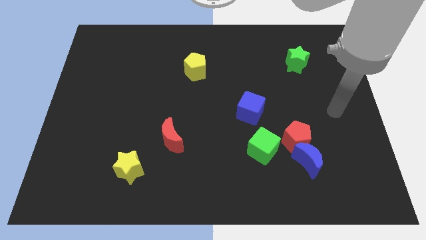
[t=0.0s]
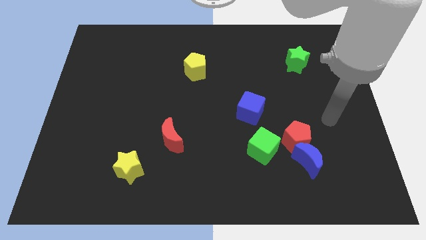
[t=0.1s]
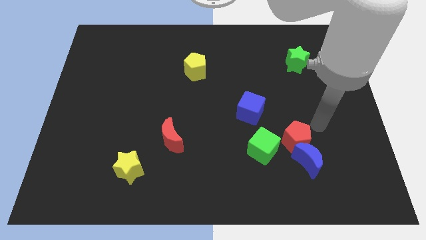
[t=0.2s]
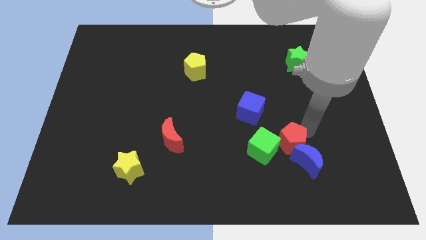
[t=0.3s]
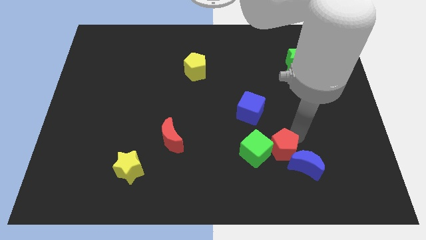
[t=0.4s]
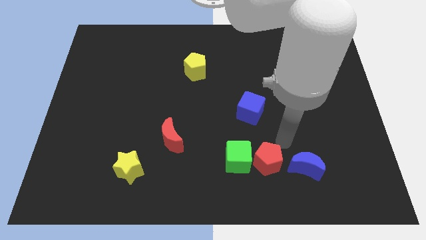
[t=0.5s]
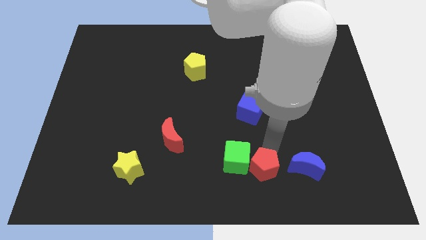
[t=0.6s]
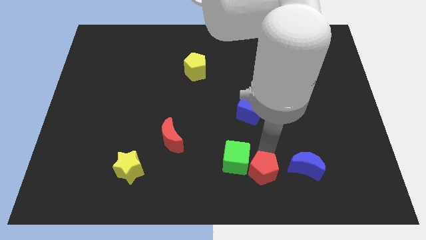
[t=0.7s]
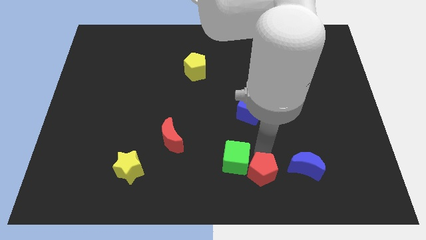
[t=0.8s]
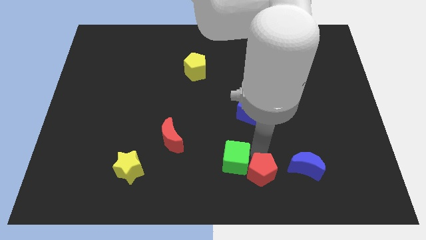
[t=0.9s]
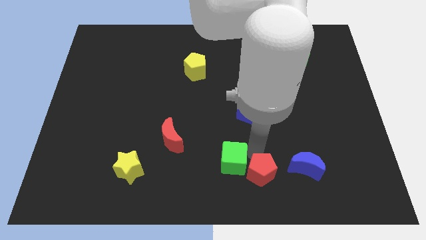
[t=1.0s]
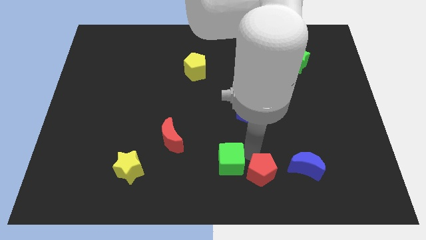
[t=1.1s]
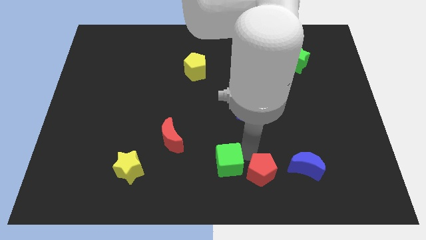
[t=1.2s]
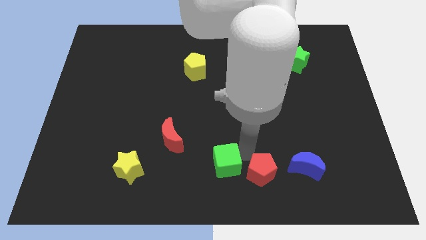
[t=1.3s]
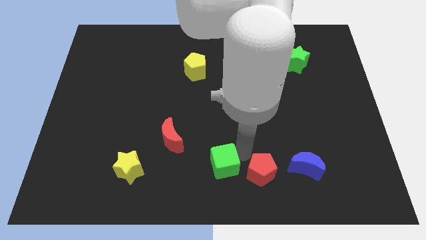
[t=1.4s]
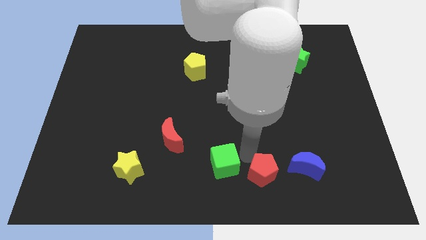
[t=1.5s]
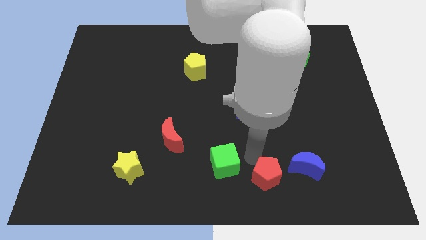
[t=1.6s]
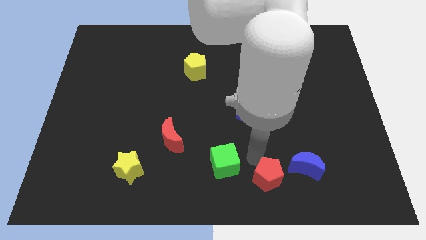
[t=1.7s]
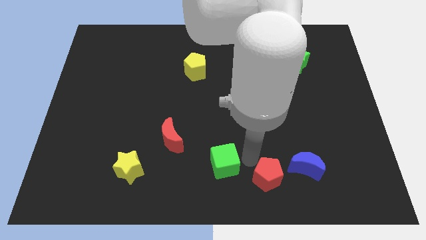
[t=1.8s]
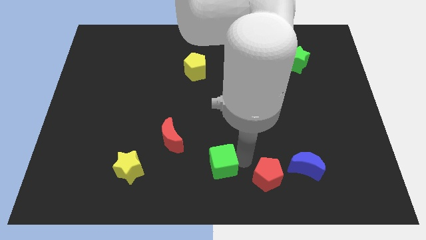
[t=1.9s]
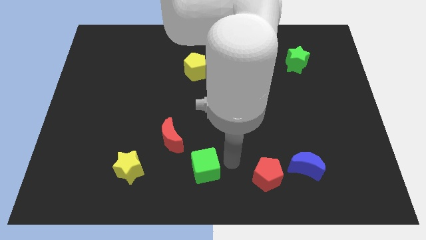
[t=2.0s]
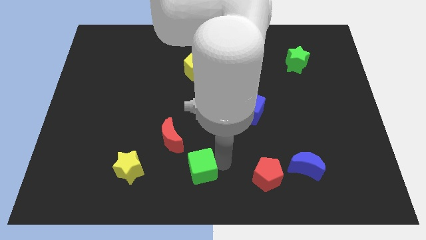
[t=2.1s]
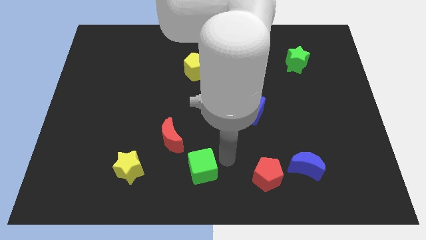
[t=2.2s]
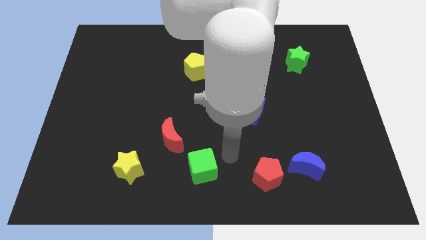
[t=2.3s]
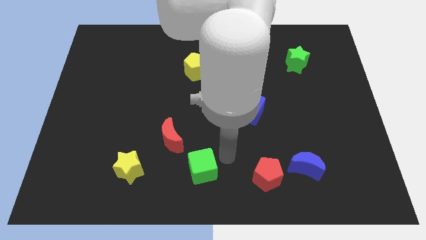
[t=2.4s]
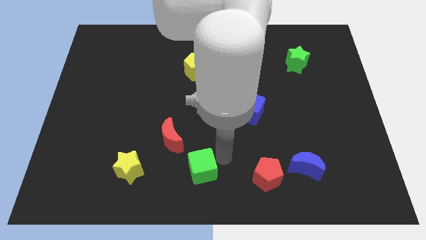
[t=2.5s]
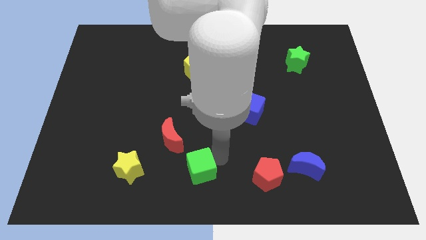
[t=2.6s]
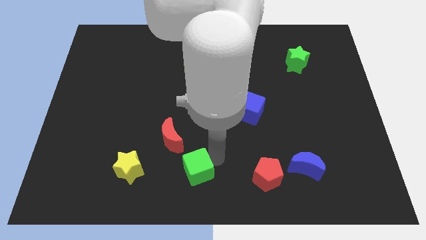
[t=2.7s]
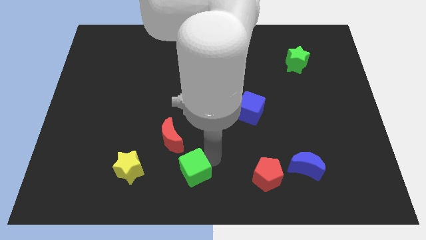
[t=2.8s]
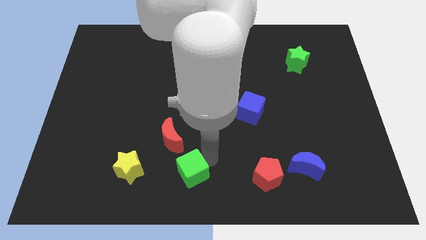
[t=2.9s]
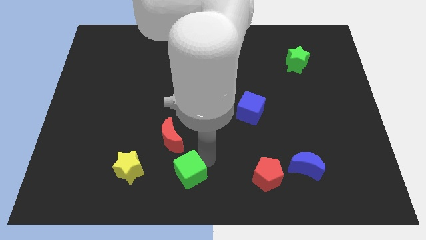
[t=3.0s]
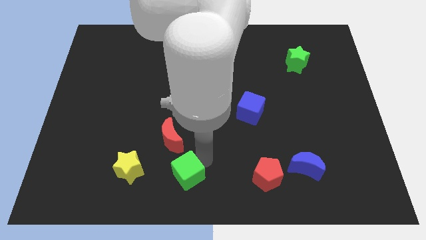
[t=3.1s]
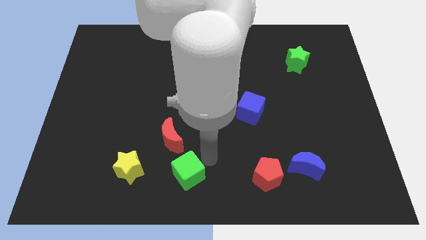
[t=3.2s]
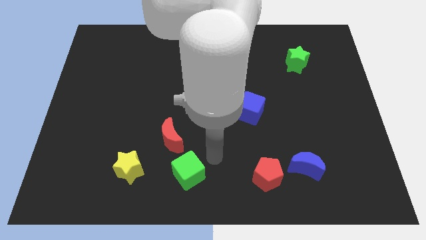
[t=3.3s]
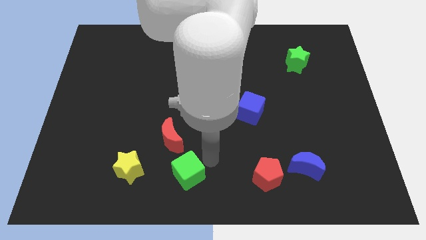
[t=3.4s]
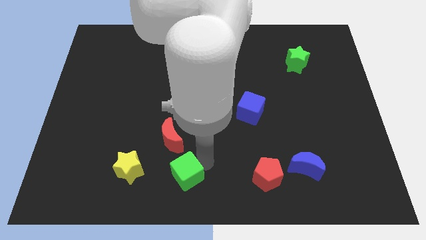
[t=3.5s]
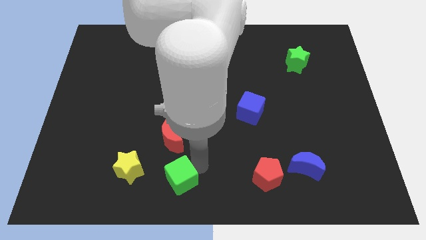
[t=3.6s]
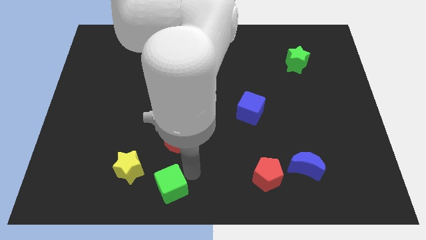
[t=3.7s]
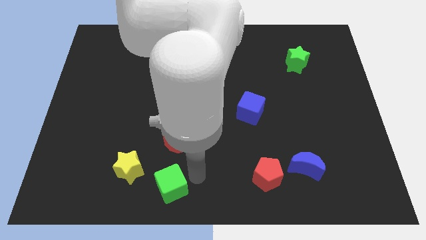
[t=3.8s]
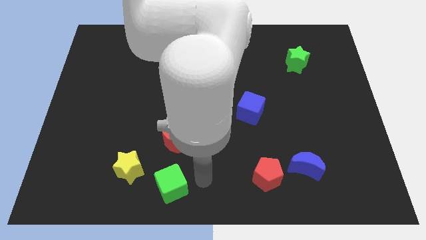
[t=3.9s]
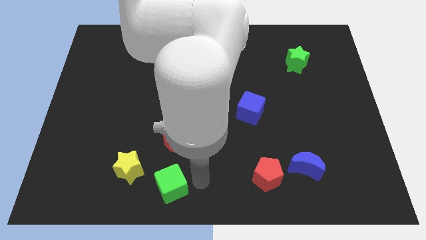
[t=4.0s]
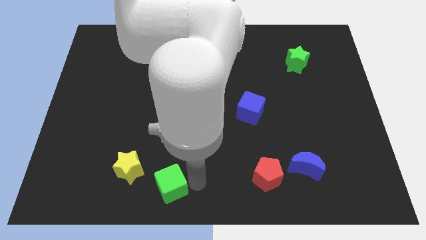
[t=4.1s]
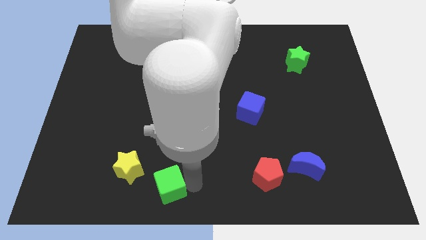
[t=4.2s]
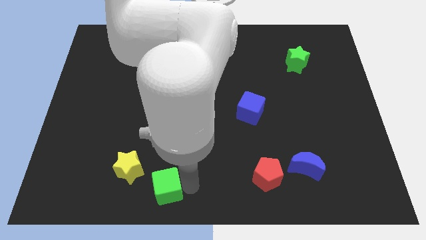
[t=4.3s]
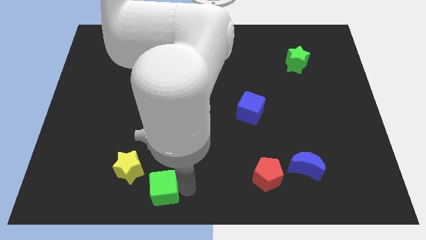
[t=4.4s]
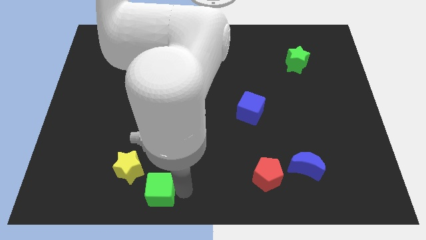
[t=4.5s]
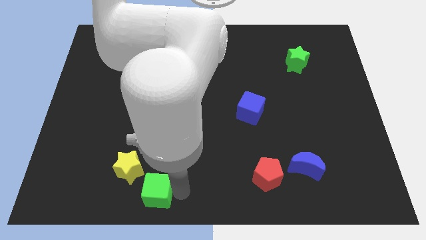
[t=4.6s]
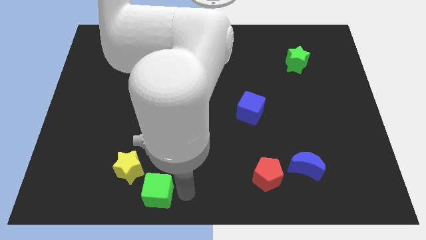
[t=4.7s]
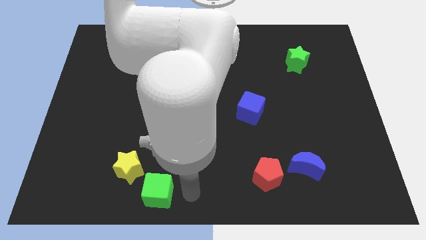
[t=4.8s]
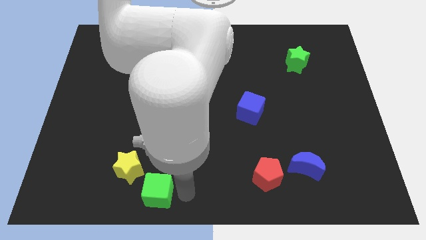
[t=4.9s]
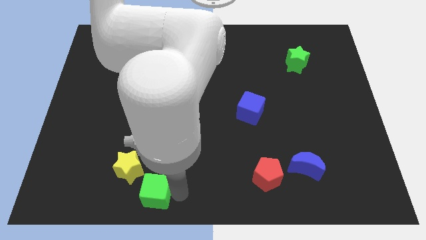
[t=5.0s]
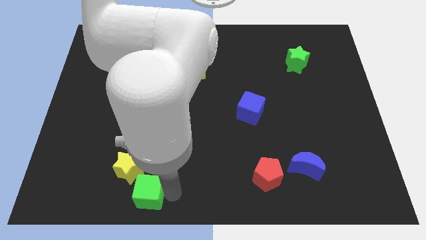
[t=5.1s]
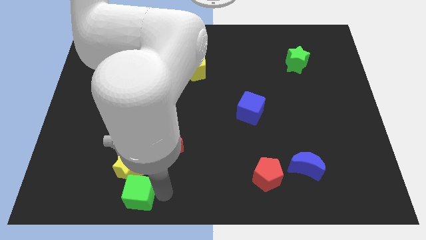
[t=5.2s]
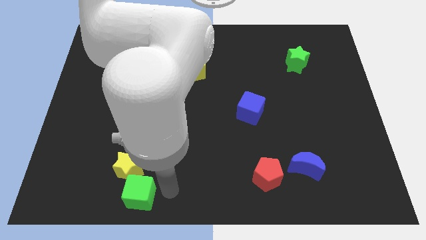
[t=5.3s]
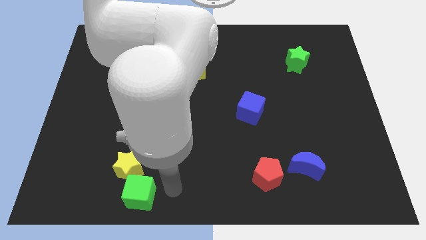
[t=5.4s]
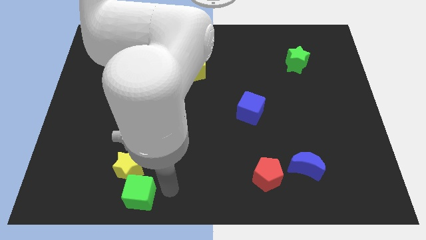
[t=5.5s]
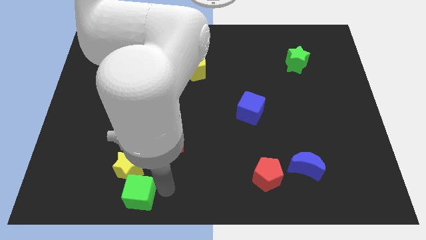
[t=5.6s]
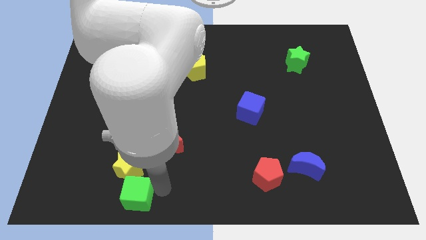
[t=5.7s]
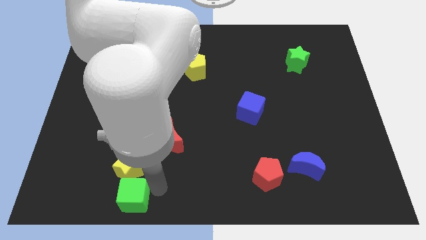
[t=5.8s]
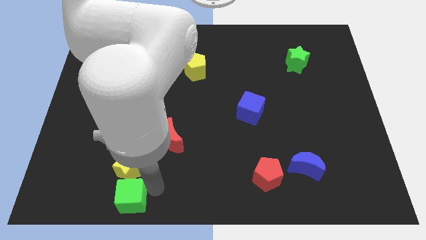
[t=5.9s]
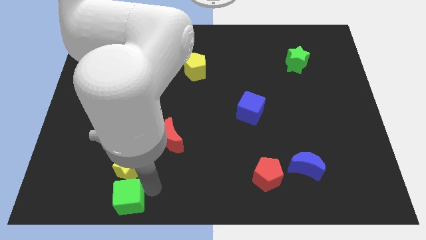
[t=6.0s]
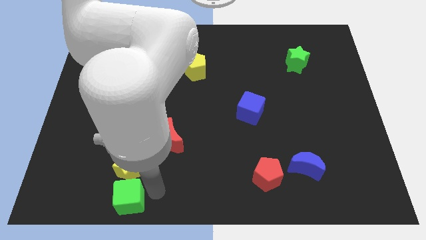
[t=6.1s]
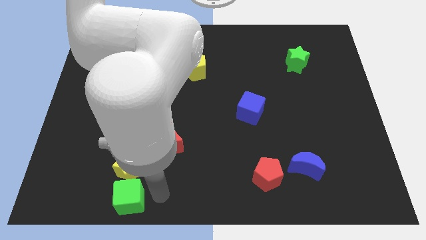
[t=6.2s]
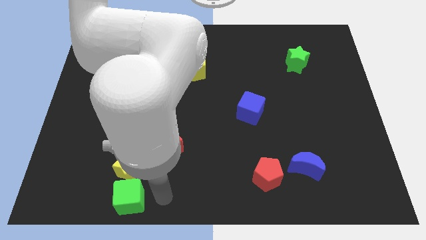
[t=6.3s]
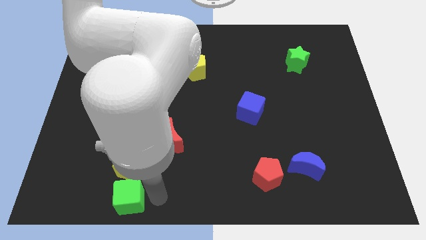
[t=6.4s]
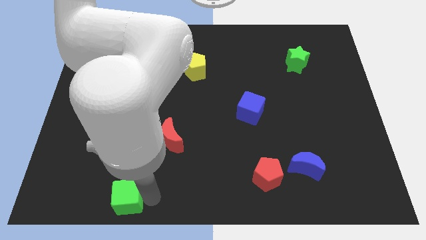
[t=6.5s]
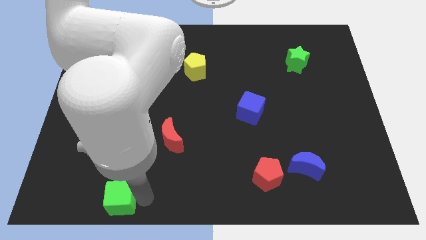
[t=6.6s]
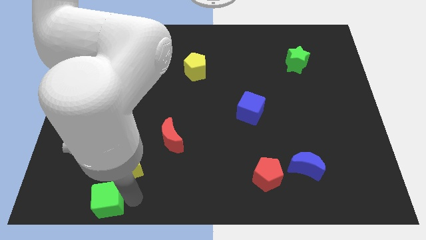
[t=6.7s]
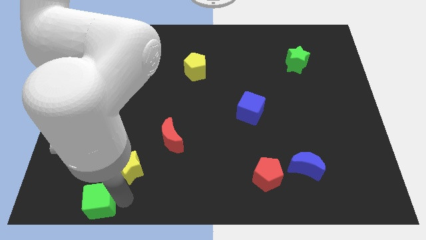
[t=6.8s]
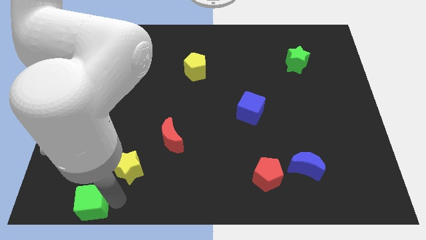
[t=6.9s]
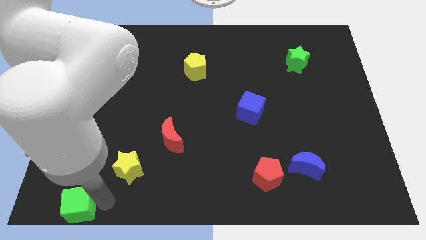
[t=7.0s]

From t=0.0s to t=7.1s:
put the green cube to the bottom left corner

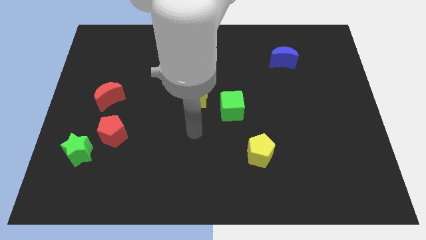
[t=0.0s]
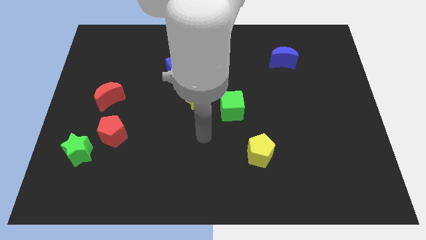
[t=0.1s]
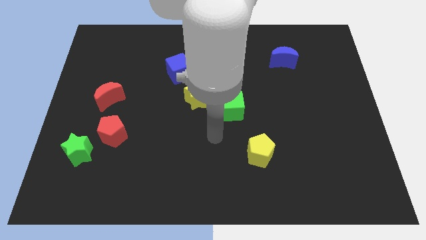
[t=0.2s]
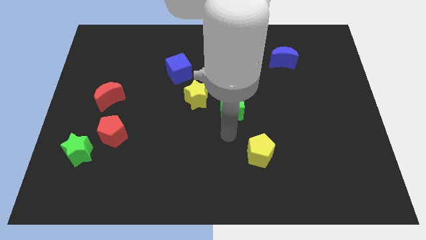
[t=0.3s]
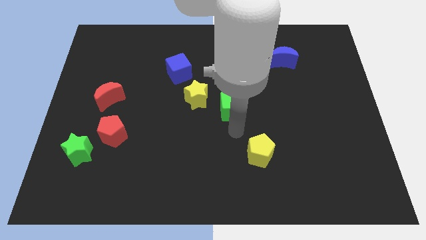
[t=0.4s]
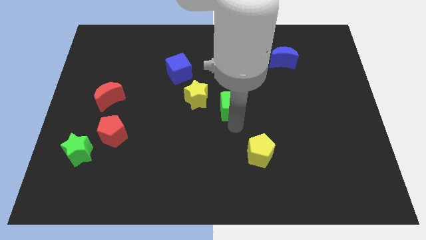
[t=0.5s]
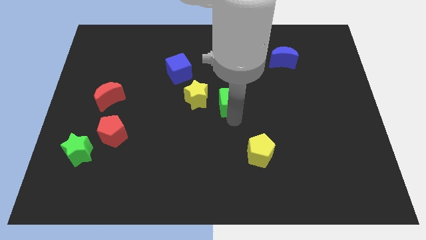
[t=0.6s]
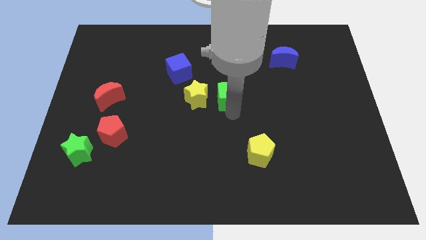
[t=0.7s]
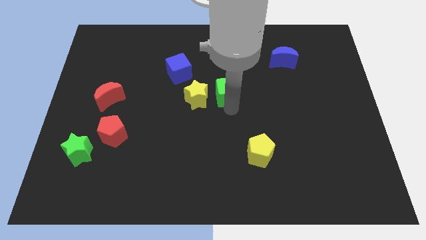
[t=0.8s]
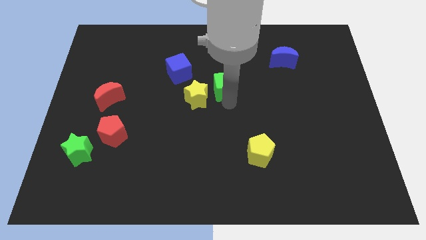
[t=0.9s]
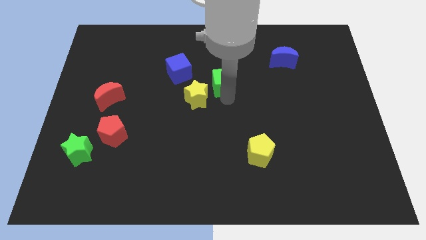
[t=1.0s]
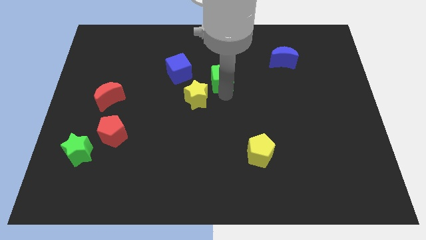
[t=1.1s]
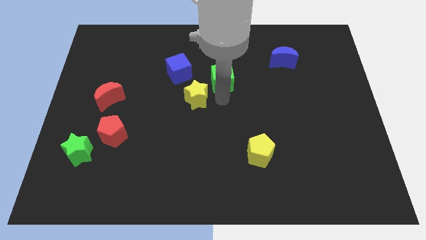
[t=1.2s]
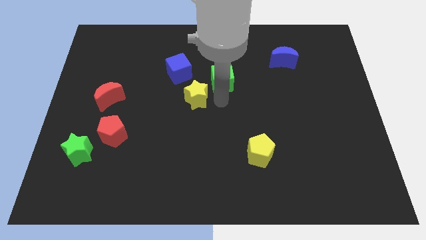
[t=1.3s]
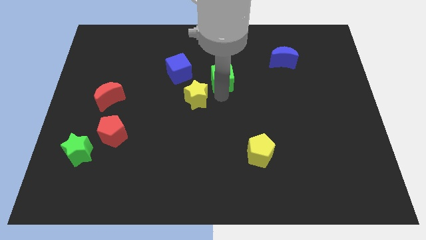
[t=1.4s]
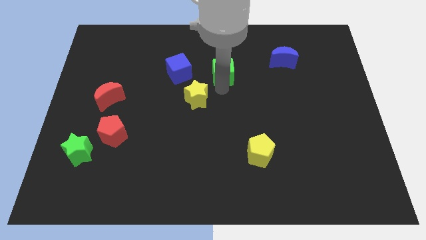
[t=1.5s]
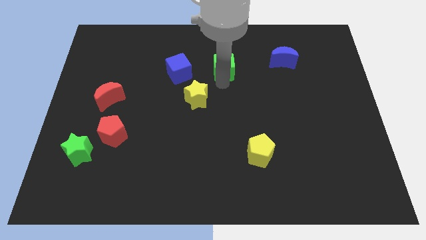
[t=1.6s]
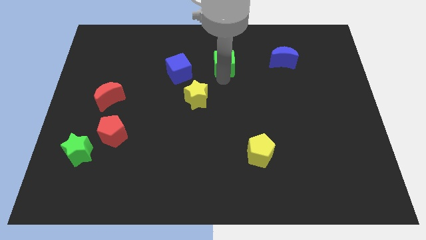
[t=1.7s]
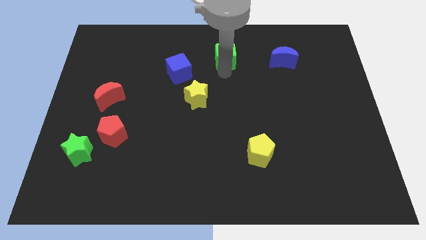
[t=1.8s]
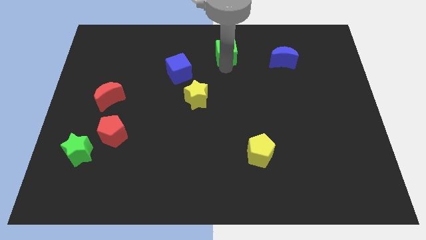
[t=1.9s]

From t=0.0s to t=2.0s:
put the green cube to the top
